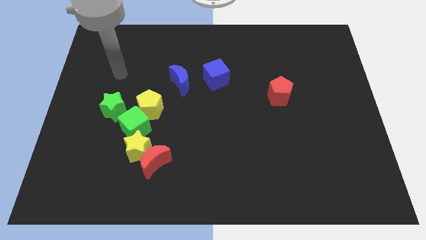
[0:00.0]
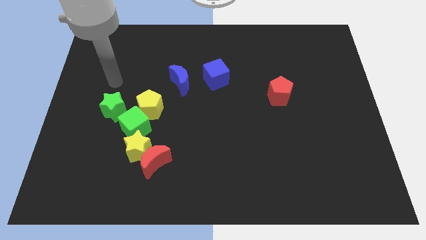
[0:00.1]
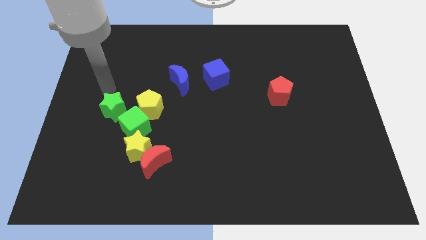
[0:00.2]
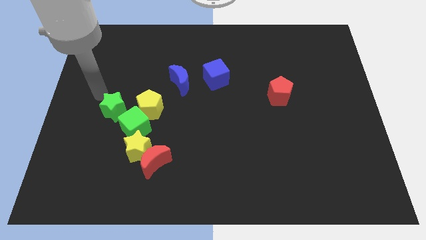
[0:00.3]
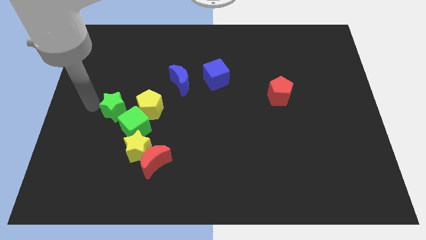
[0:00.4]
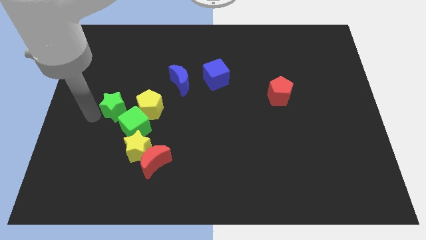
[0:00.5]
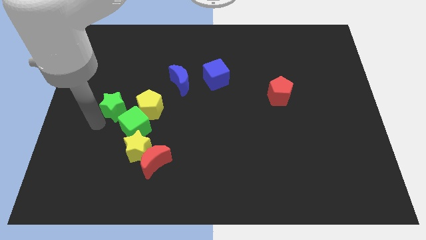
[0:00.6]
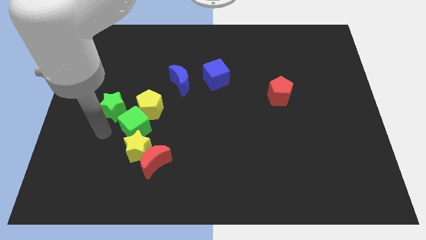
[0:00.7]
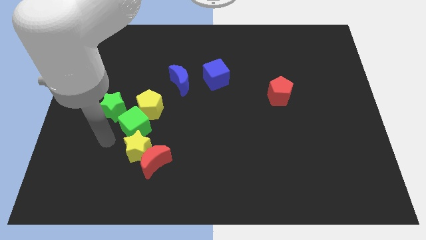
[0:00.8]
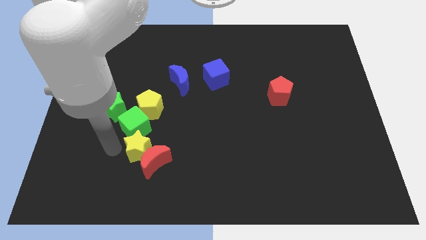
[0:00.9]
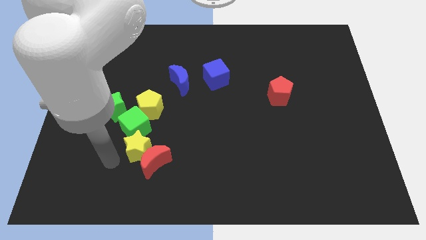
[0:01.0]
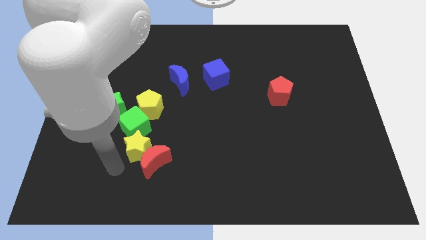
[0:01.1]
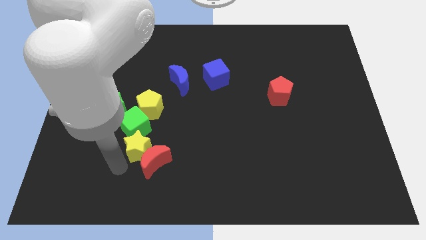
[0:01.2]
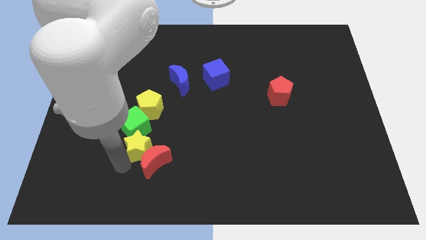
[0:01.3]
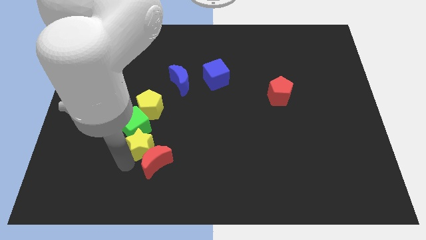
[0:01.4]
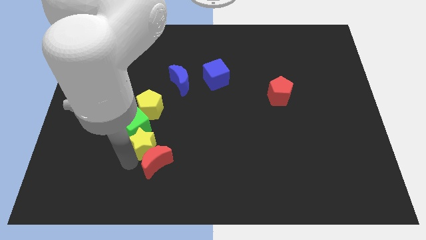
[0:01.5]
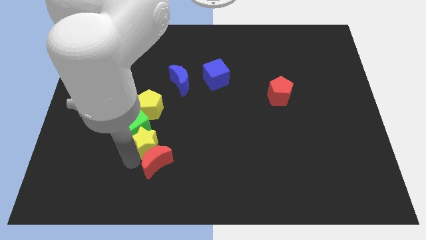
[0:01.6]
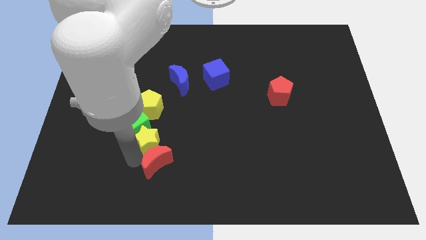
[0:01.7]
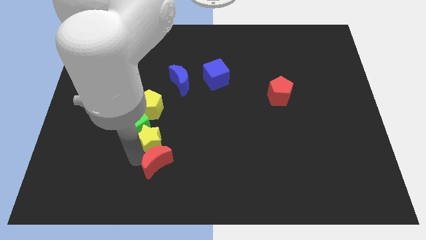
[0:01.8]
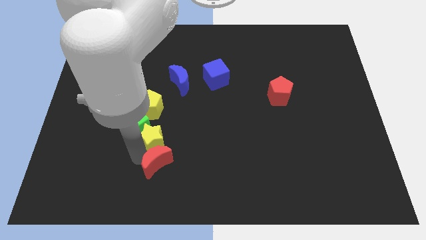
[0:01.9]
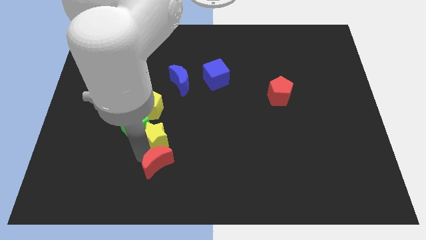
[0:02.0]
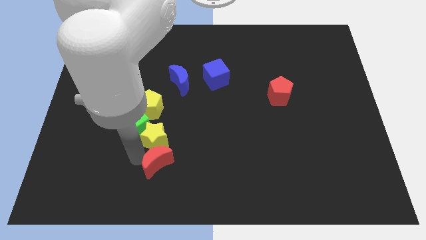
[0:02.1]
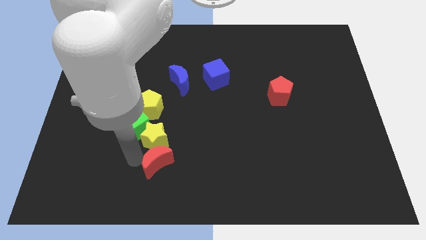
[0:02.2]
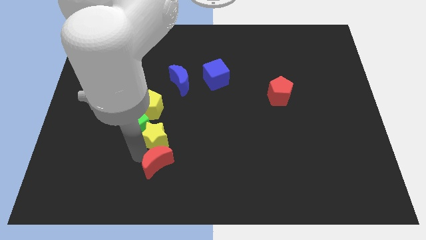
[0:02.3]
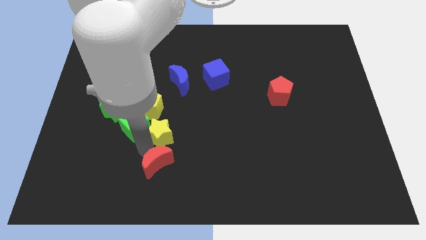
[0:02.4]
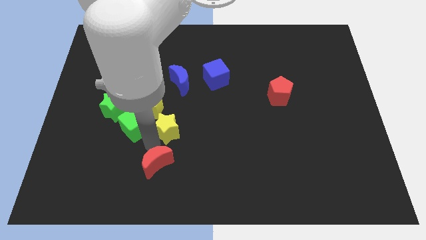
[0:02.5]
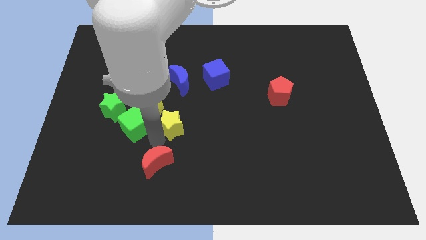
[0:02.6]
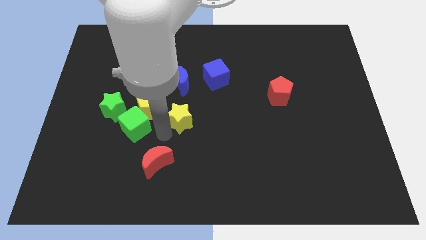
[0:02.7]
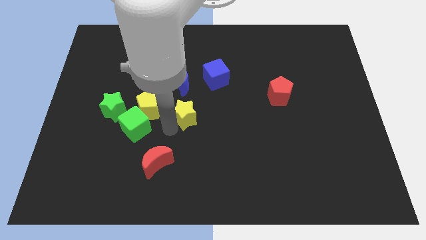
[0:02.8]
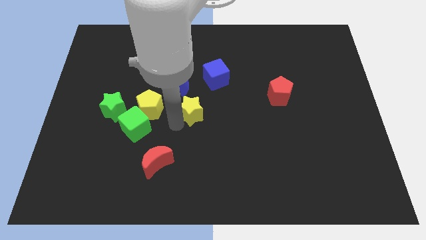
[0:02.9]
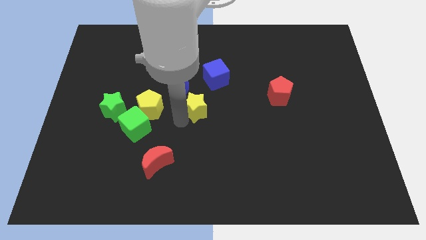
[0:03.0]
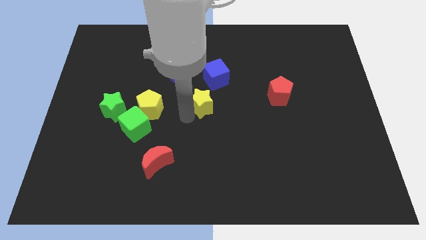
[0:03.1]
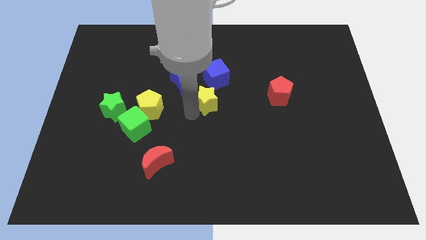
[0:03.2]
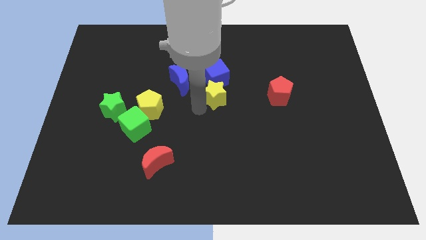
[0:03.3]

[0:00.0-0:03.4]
slide the yellow star diagonally upwards and right

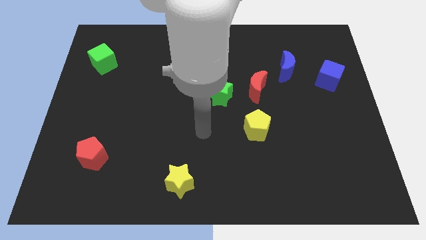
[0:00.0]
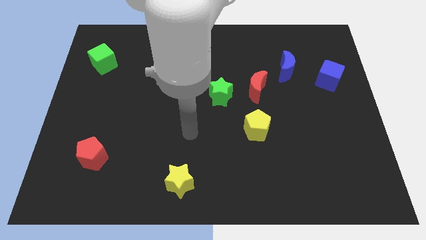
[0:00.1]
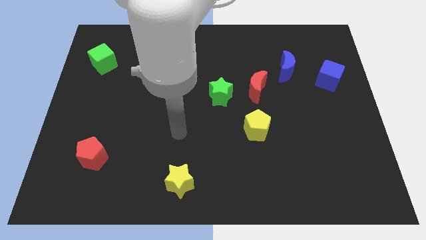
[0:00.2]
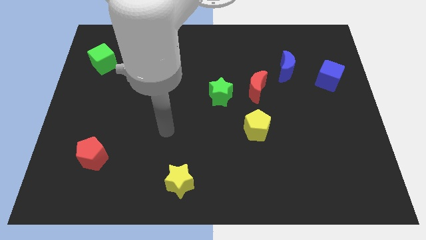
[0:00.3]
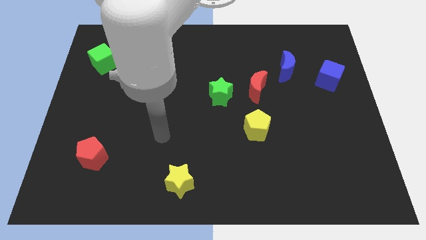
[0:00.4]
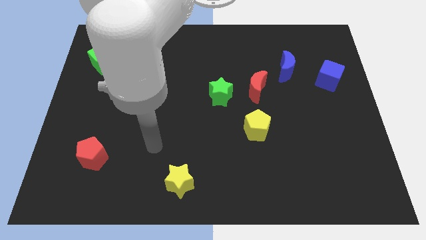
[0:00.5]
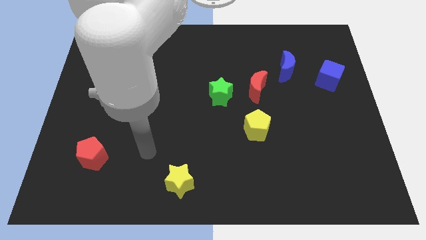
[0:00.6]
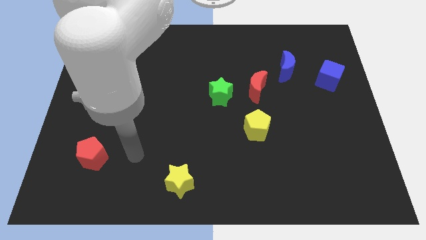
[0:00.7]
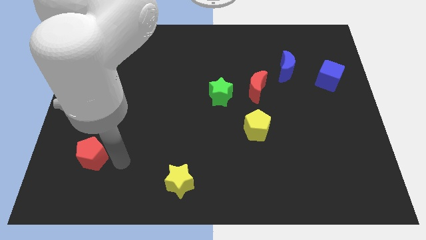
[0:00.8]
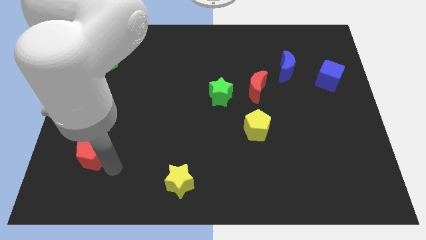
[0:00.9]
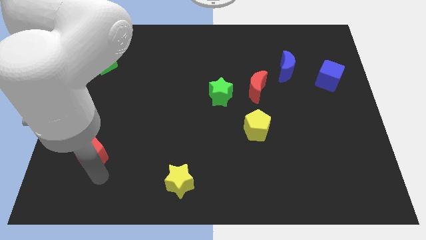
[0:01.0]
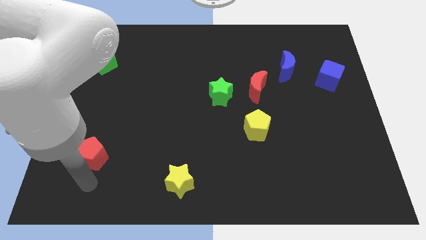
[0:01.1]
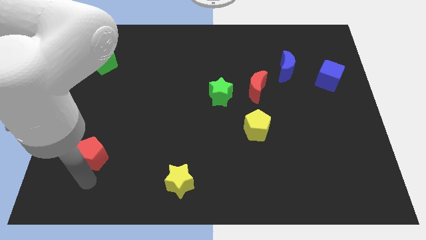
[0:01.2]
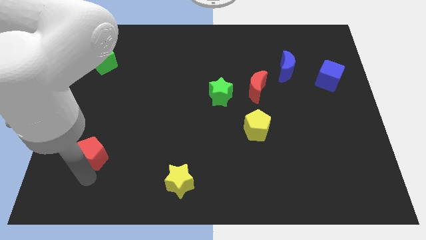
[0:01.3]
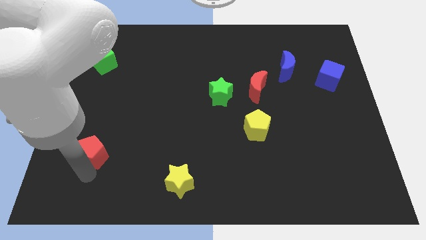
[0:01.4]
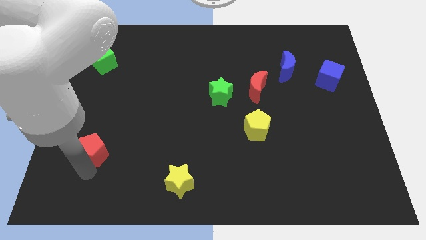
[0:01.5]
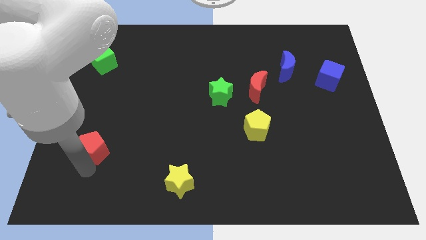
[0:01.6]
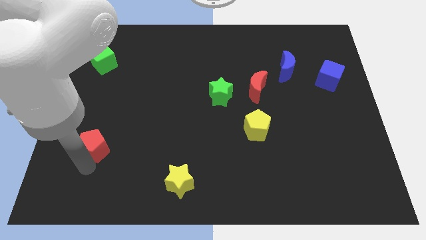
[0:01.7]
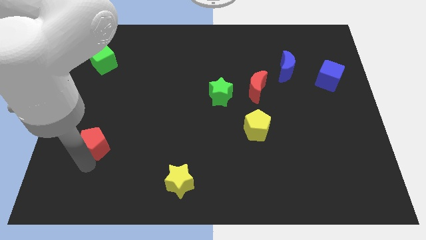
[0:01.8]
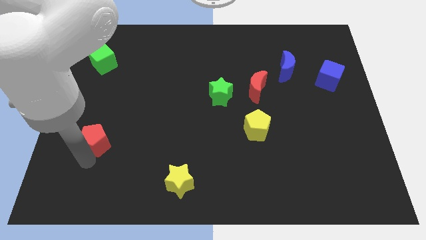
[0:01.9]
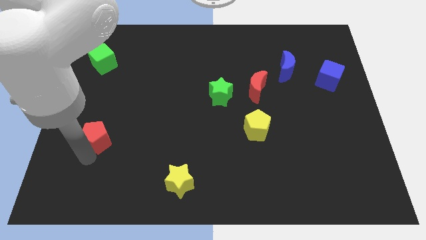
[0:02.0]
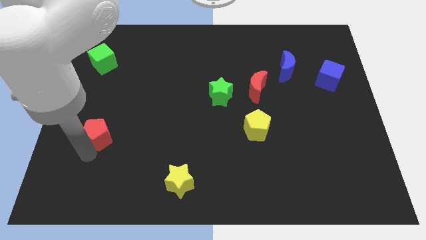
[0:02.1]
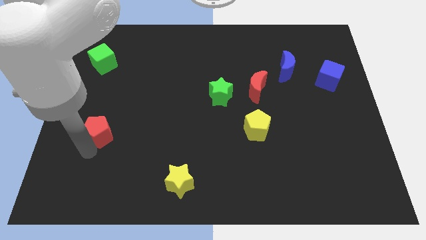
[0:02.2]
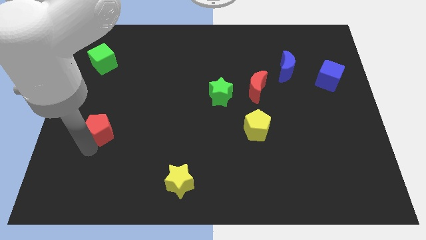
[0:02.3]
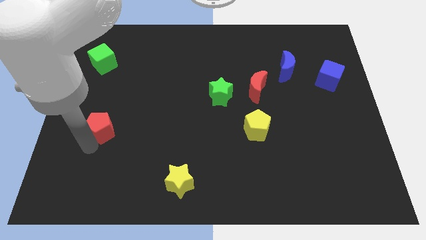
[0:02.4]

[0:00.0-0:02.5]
move the red pentagon a little bit up

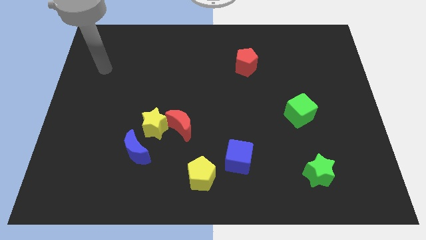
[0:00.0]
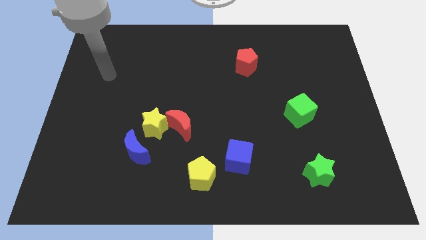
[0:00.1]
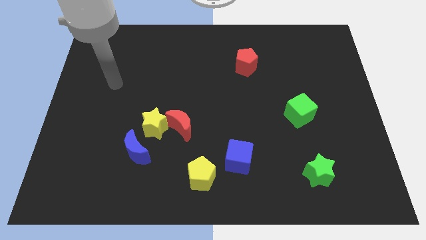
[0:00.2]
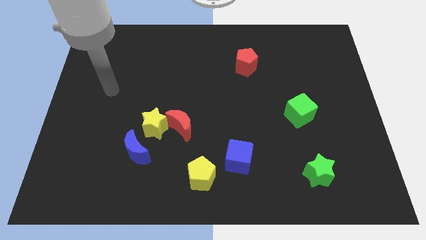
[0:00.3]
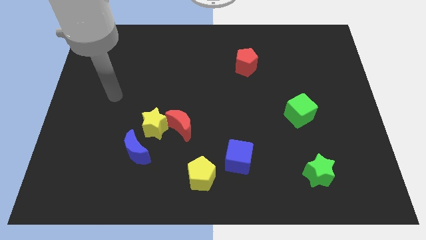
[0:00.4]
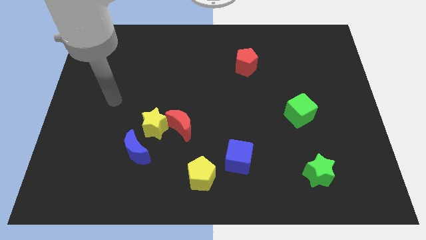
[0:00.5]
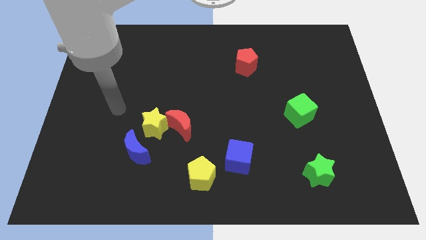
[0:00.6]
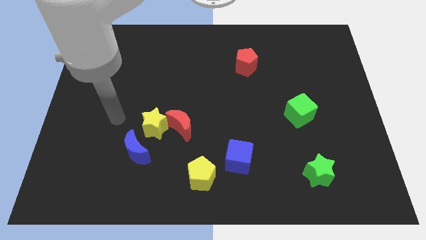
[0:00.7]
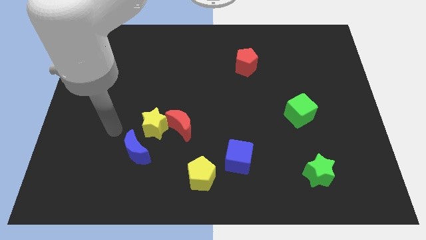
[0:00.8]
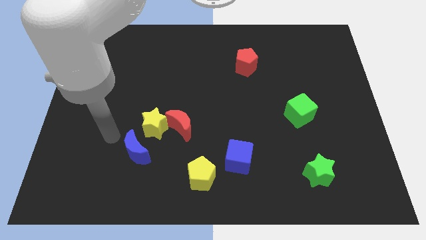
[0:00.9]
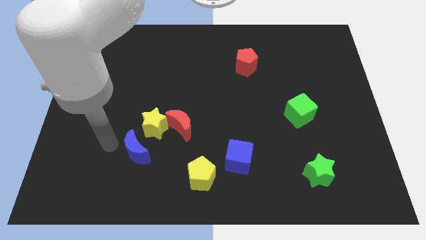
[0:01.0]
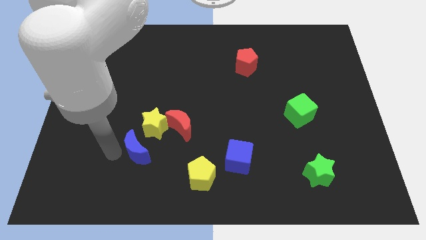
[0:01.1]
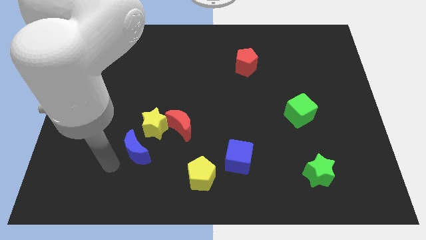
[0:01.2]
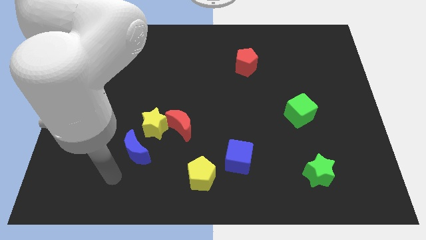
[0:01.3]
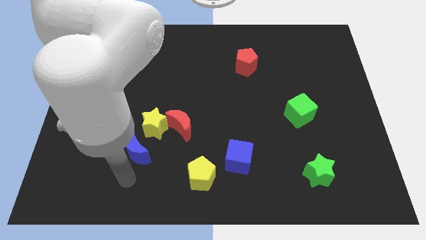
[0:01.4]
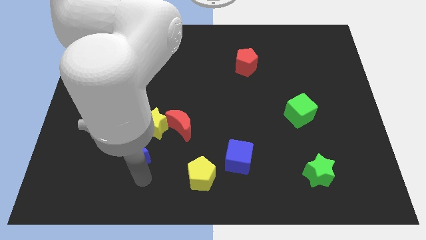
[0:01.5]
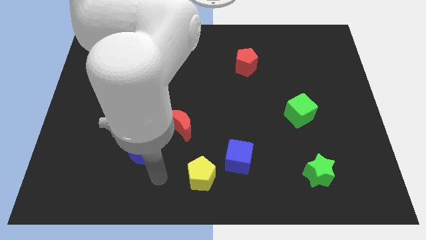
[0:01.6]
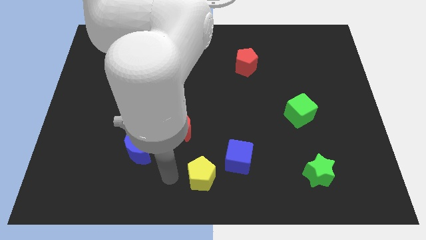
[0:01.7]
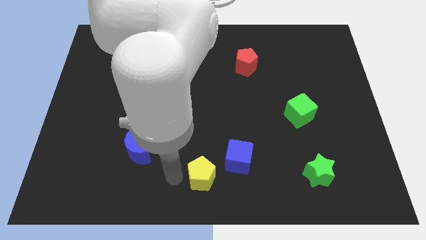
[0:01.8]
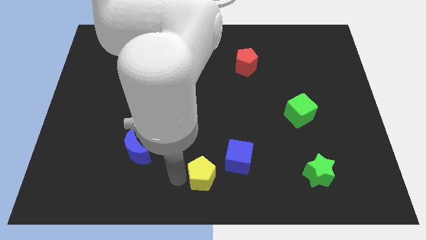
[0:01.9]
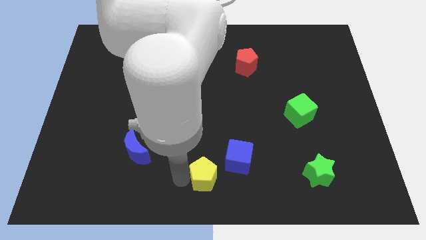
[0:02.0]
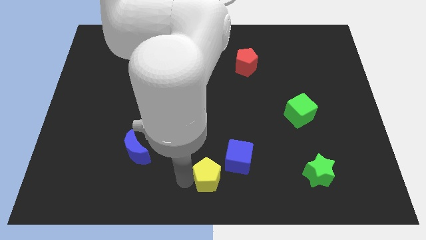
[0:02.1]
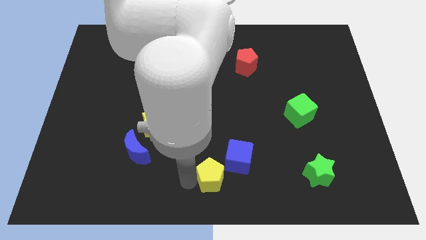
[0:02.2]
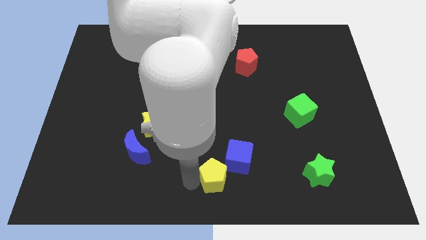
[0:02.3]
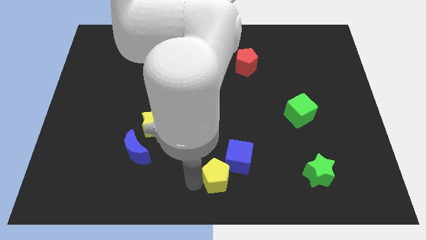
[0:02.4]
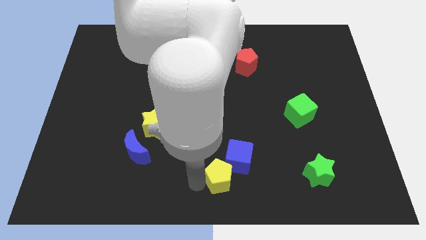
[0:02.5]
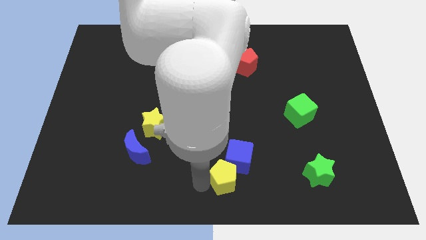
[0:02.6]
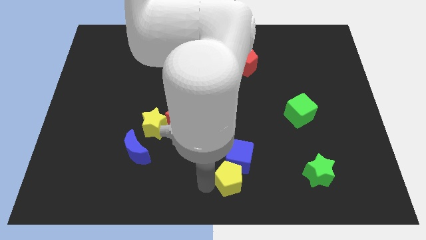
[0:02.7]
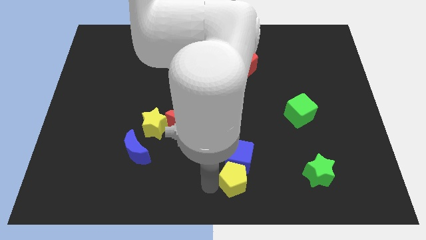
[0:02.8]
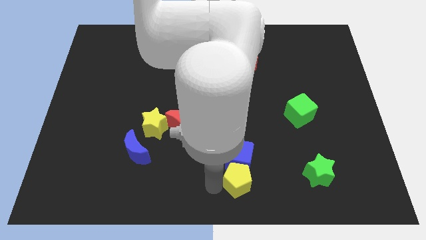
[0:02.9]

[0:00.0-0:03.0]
slightly move the yellow pentagon to the right
